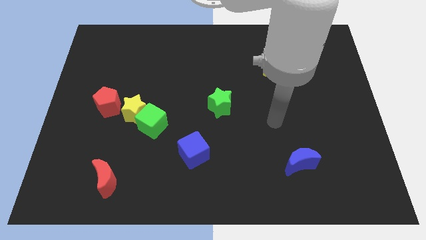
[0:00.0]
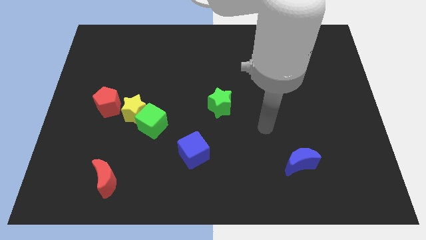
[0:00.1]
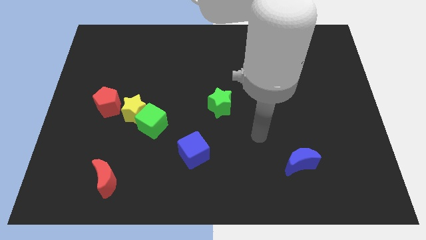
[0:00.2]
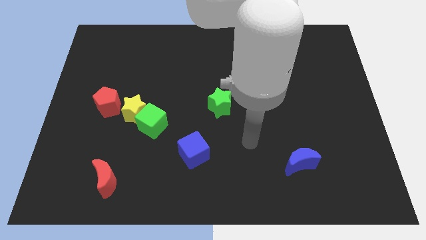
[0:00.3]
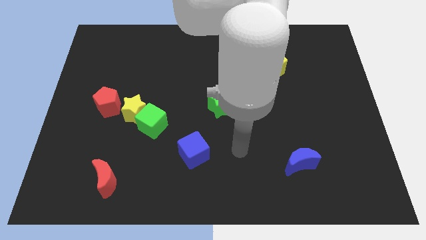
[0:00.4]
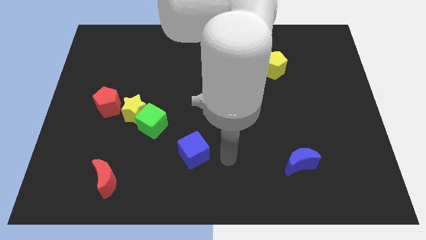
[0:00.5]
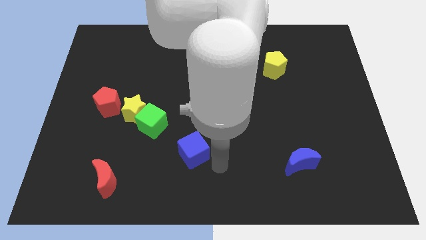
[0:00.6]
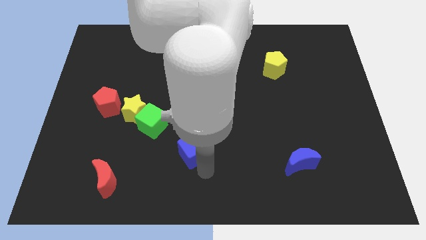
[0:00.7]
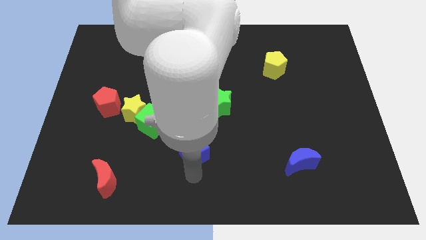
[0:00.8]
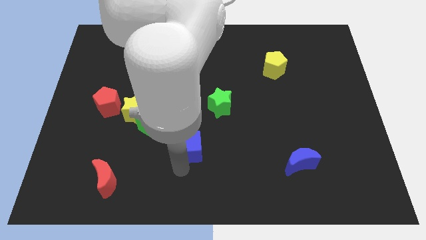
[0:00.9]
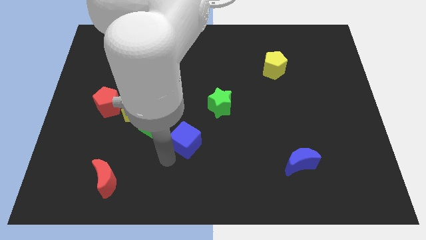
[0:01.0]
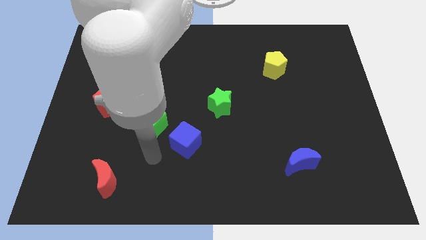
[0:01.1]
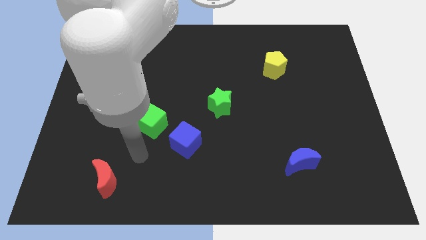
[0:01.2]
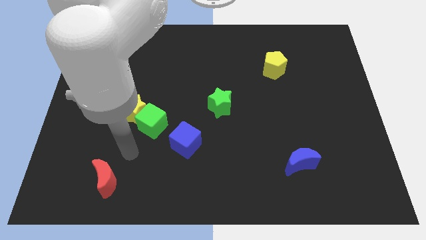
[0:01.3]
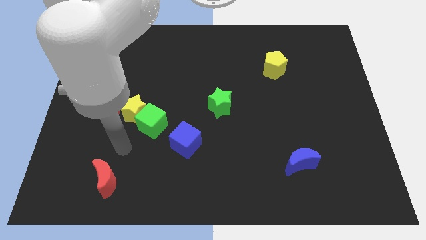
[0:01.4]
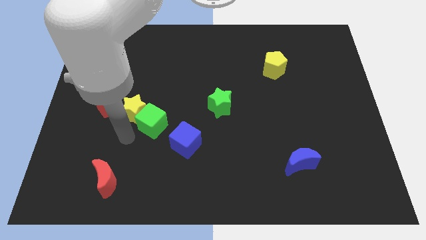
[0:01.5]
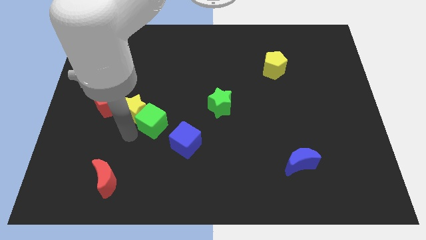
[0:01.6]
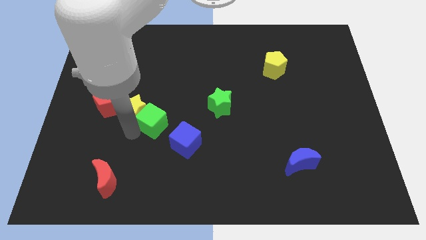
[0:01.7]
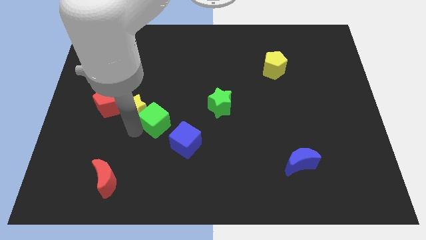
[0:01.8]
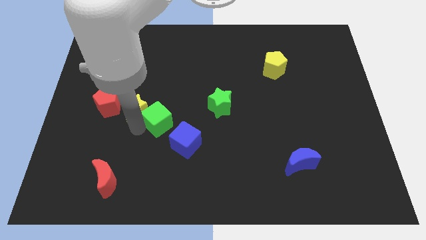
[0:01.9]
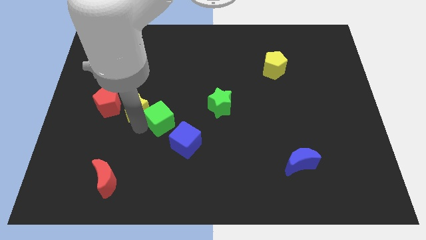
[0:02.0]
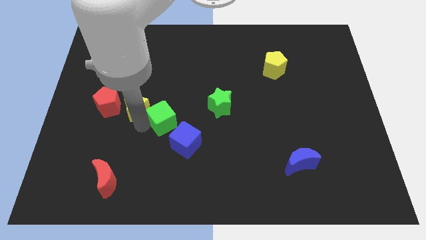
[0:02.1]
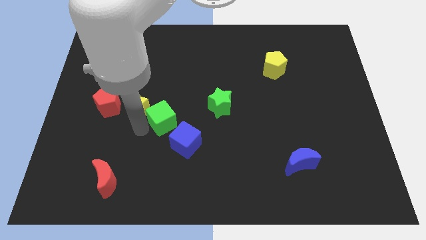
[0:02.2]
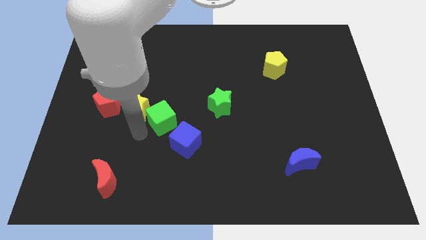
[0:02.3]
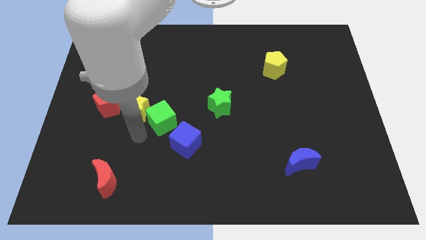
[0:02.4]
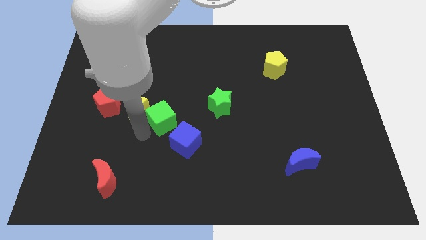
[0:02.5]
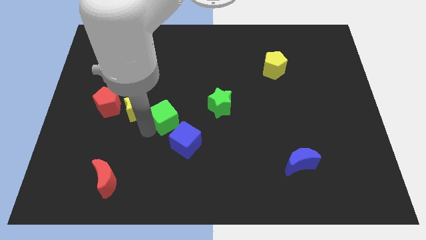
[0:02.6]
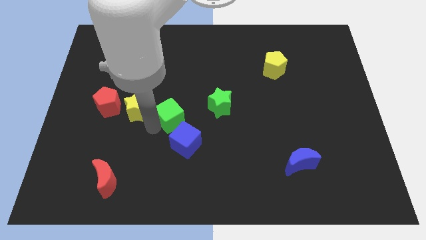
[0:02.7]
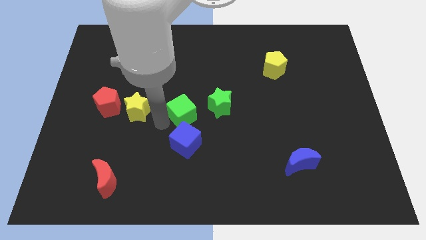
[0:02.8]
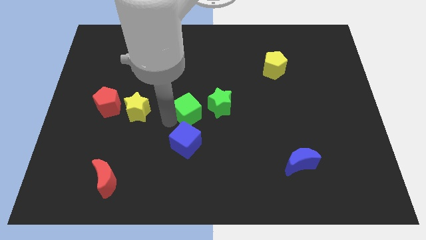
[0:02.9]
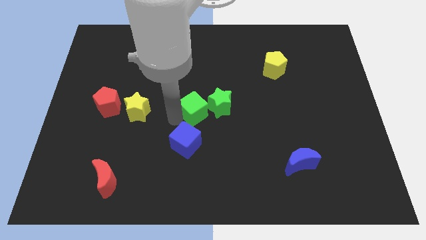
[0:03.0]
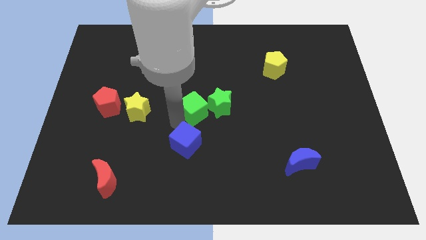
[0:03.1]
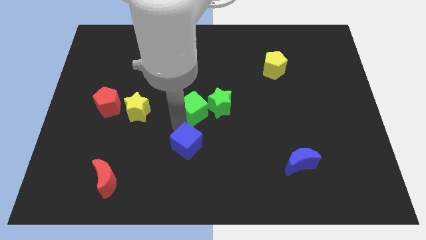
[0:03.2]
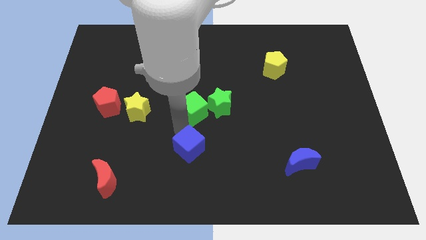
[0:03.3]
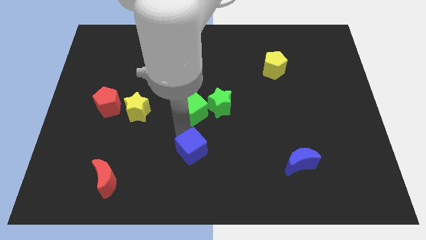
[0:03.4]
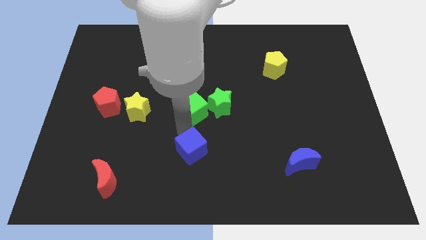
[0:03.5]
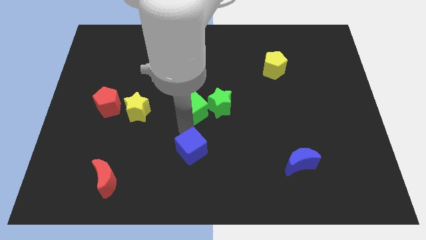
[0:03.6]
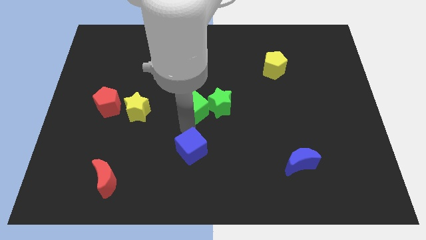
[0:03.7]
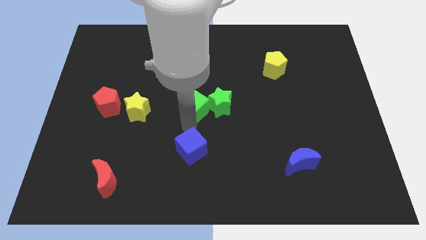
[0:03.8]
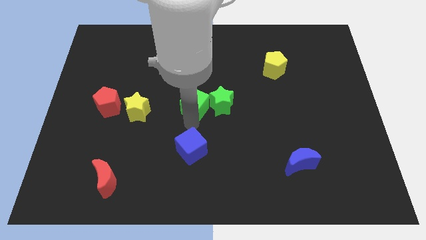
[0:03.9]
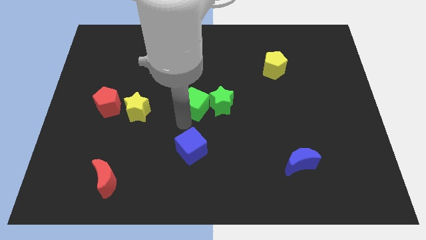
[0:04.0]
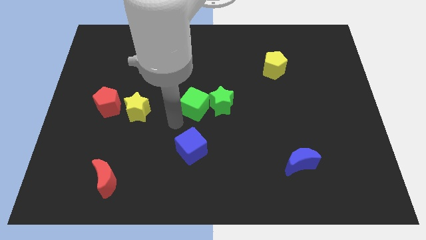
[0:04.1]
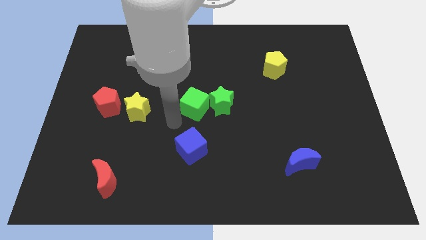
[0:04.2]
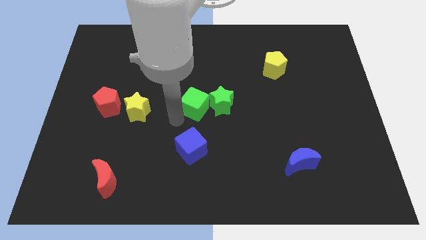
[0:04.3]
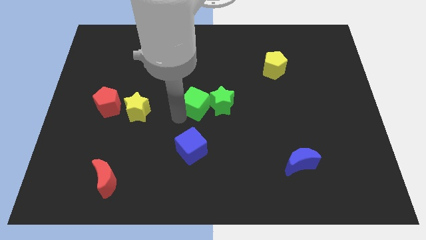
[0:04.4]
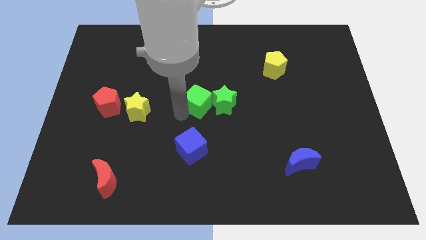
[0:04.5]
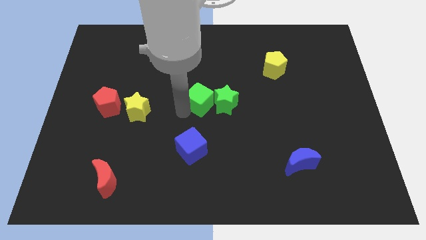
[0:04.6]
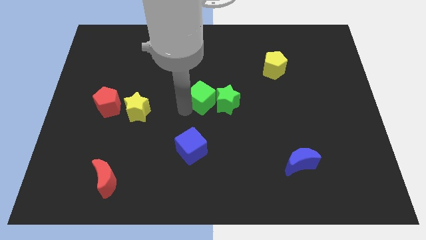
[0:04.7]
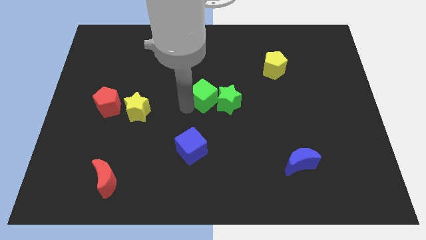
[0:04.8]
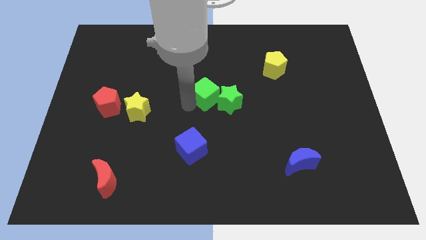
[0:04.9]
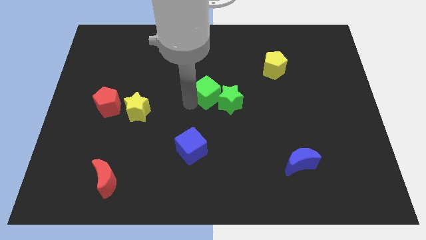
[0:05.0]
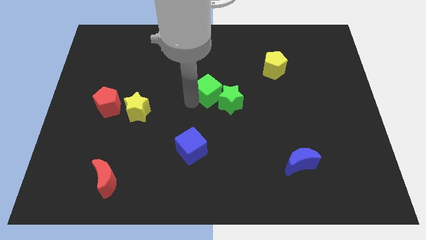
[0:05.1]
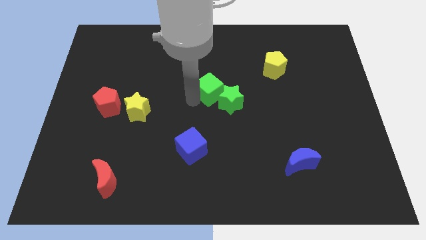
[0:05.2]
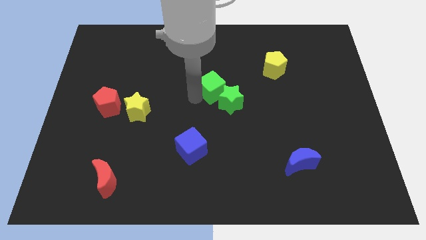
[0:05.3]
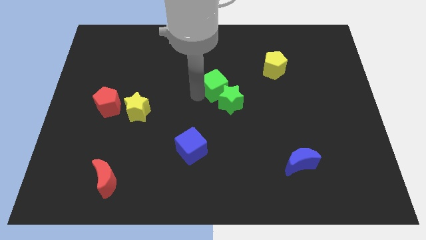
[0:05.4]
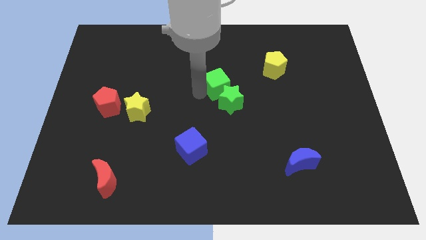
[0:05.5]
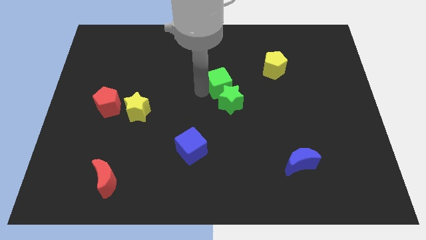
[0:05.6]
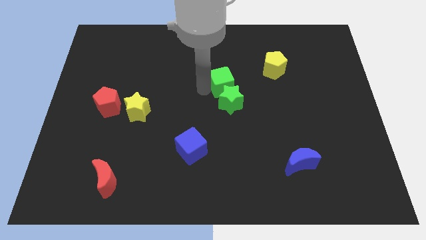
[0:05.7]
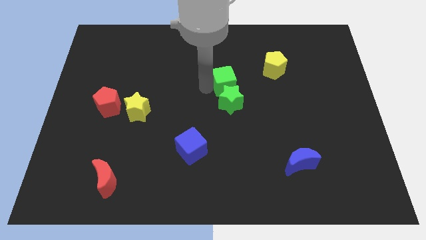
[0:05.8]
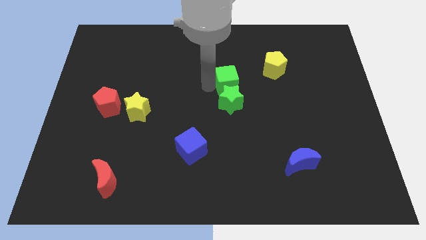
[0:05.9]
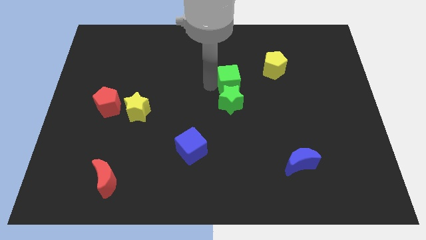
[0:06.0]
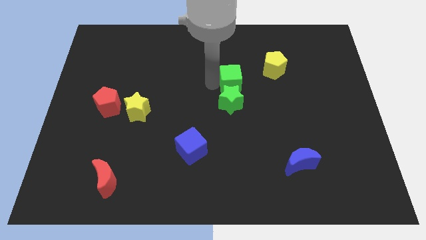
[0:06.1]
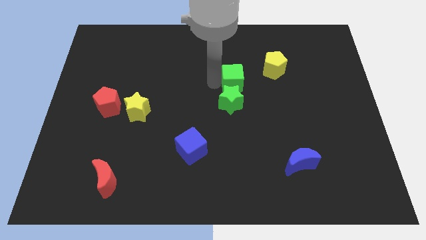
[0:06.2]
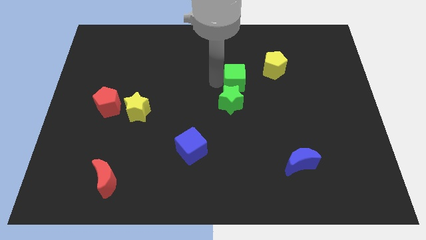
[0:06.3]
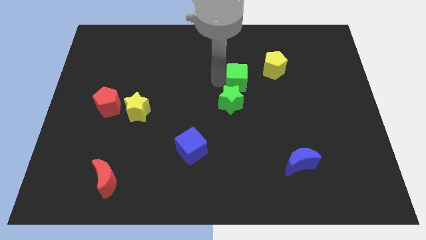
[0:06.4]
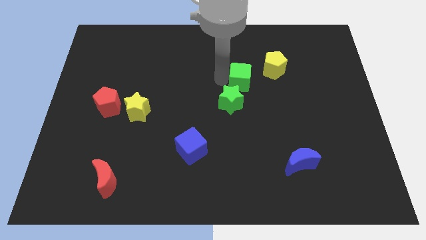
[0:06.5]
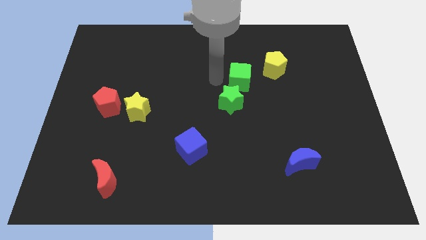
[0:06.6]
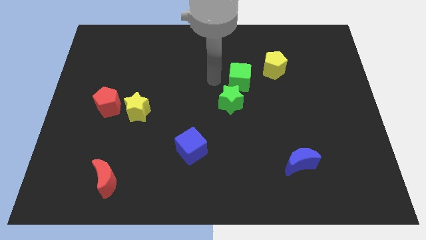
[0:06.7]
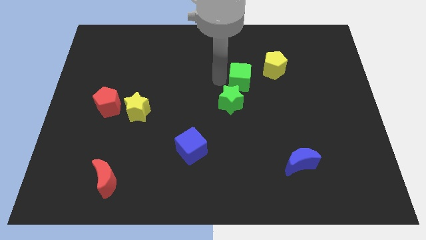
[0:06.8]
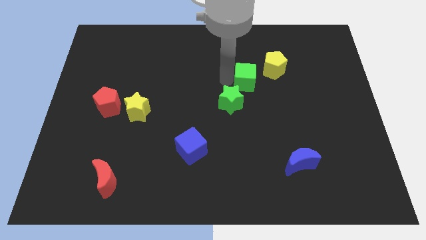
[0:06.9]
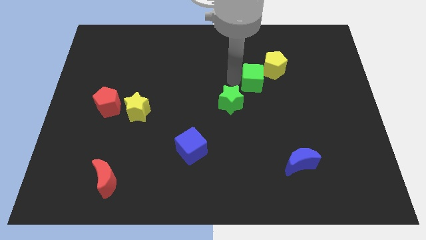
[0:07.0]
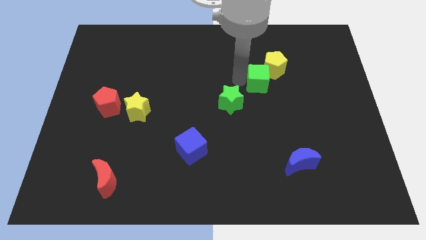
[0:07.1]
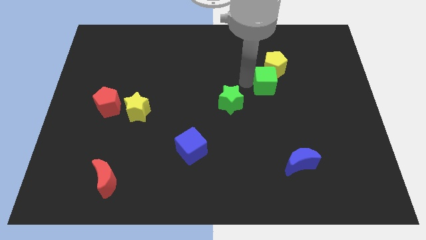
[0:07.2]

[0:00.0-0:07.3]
slide the green cube towards the yellow pentagon
